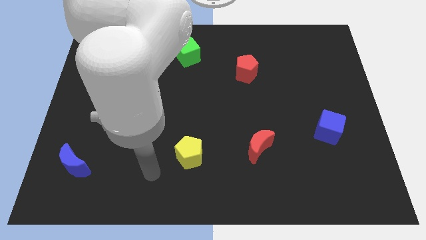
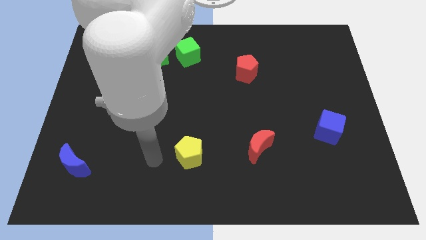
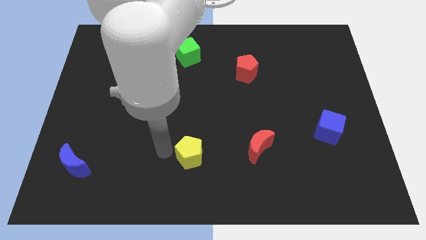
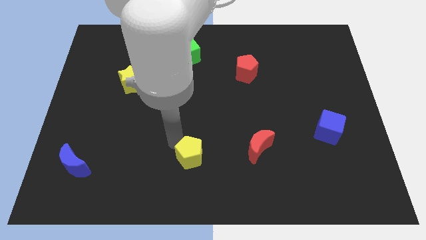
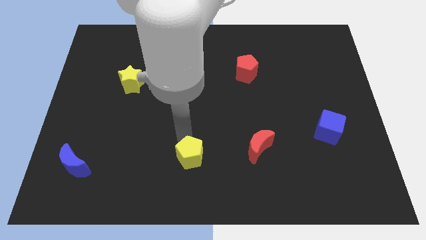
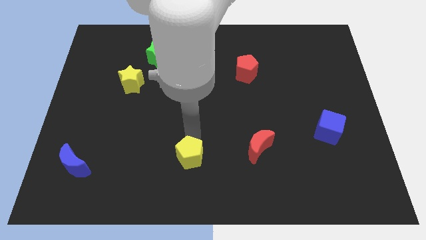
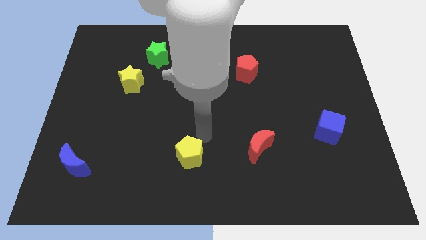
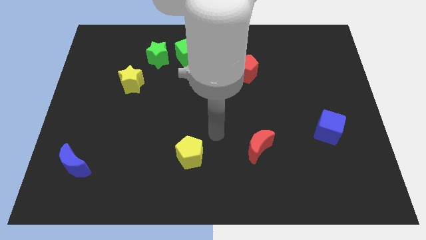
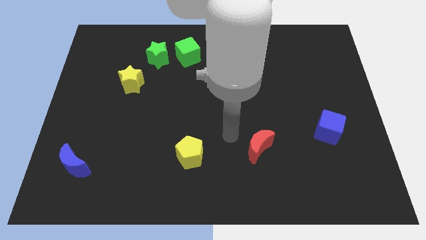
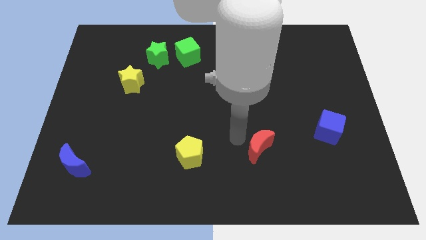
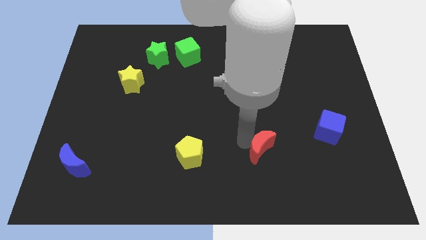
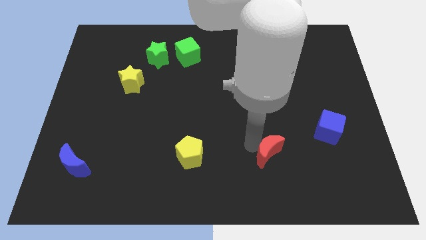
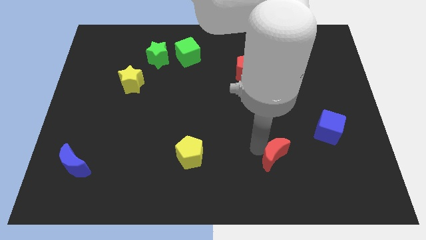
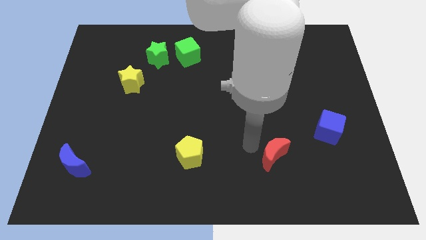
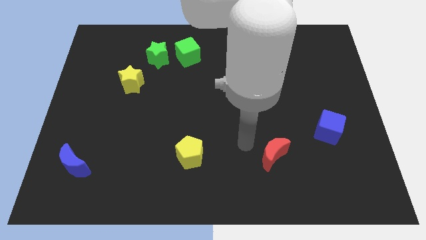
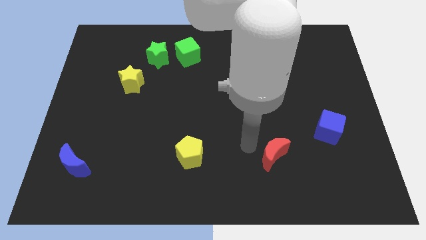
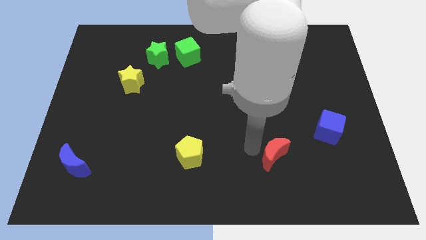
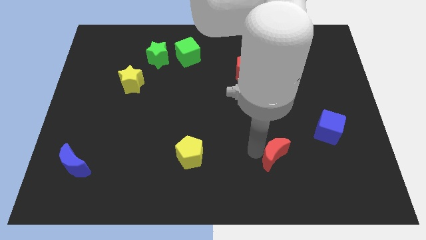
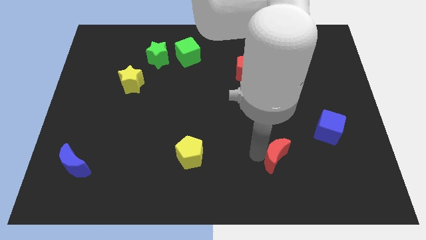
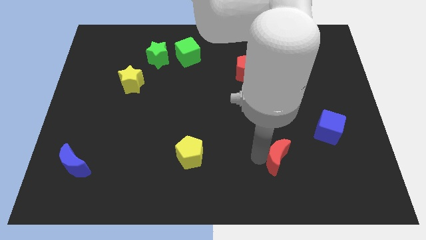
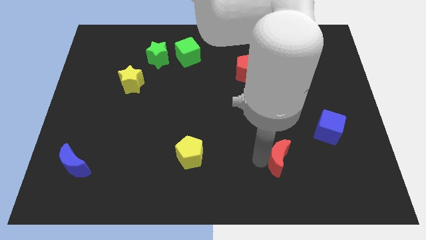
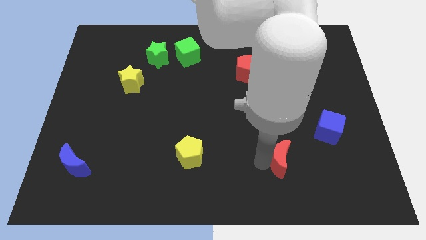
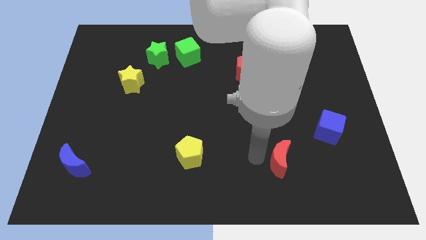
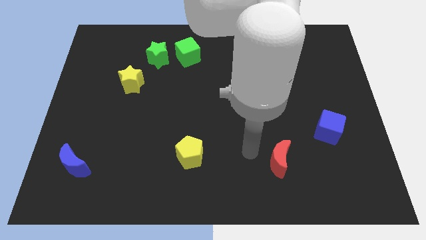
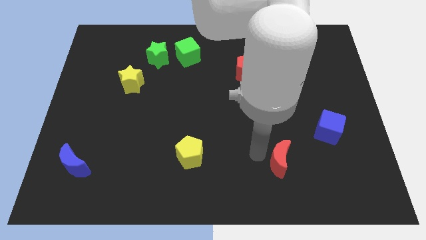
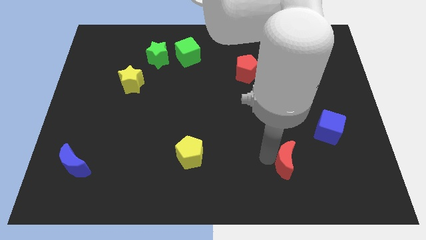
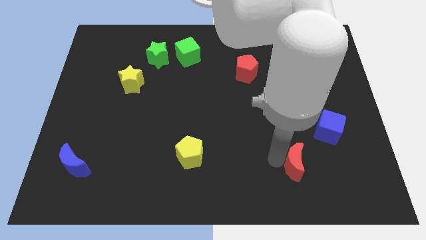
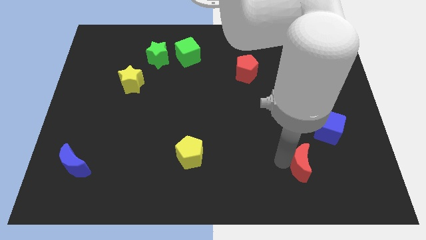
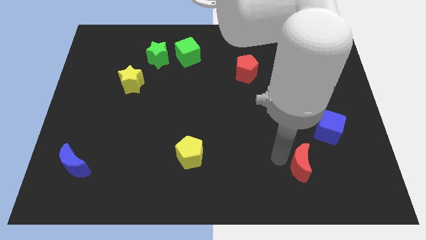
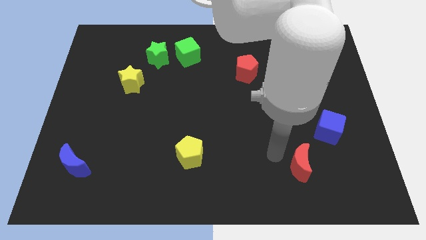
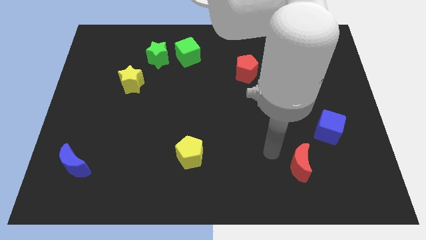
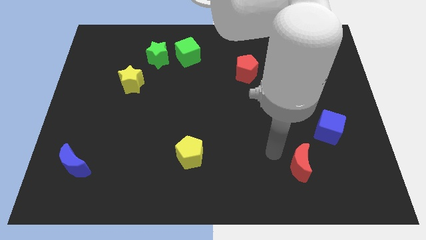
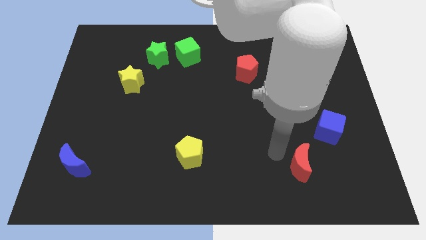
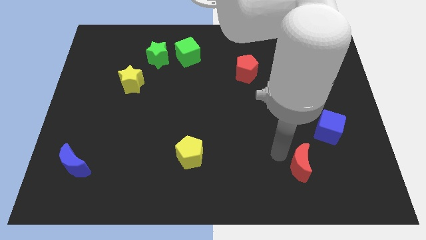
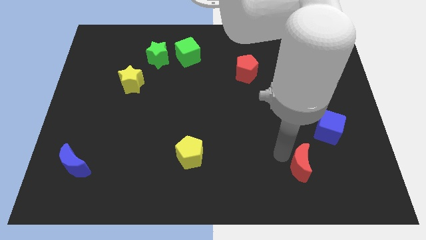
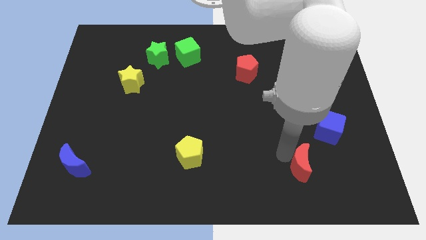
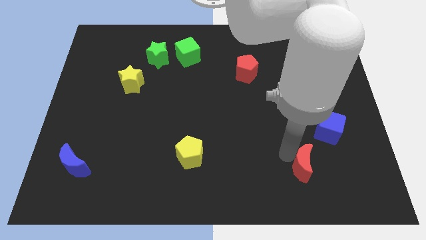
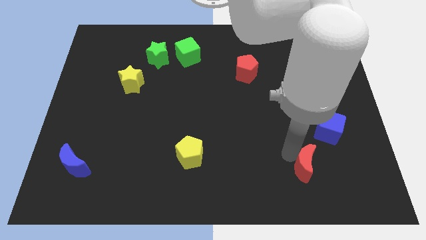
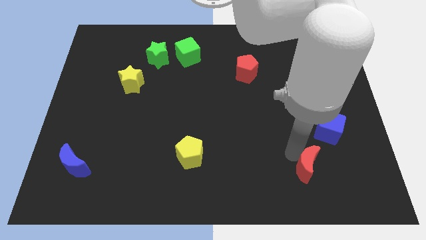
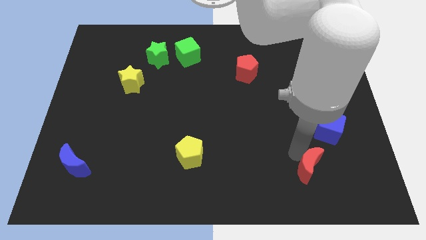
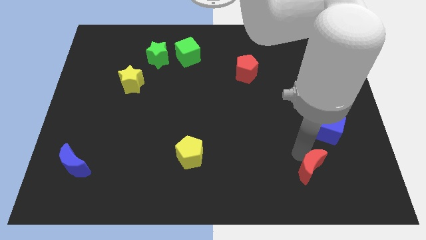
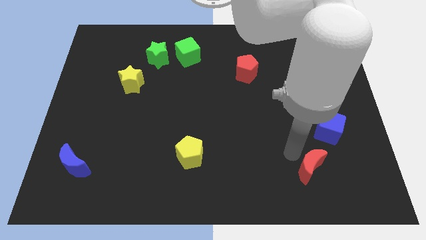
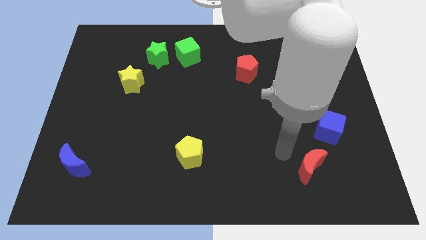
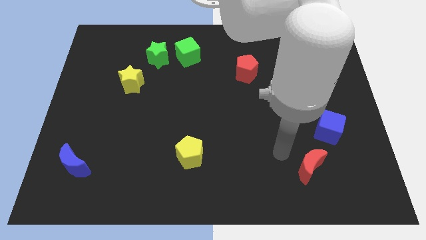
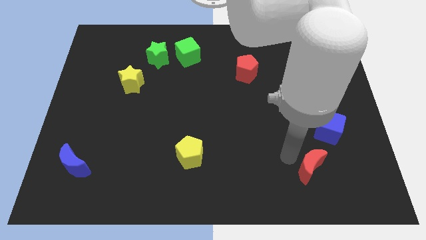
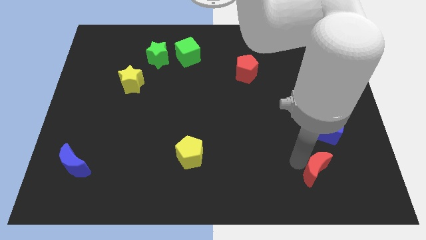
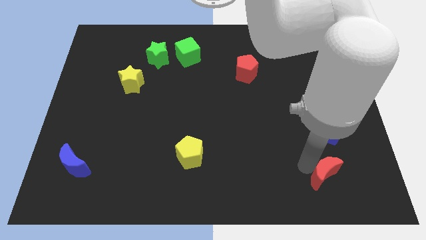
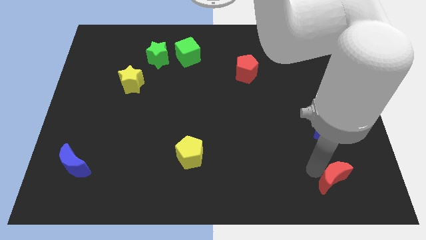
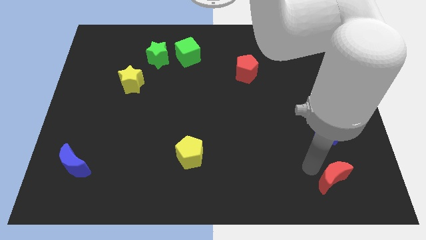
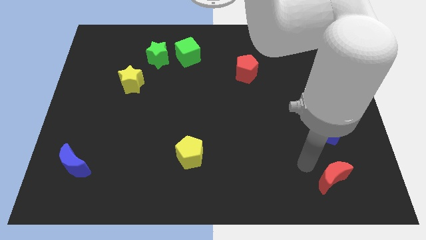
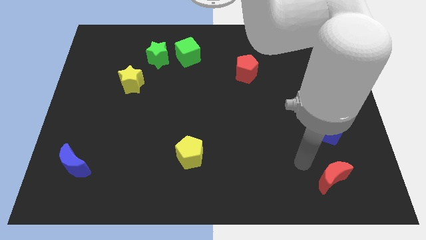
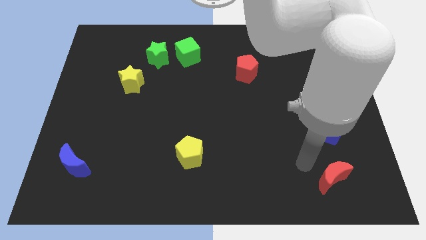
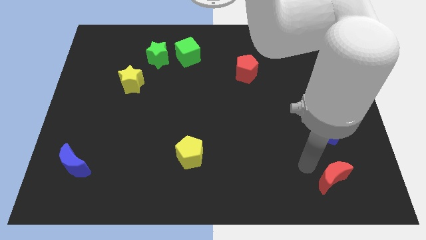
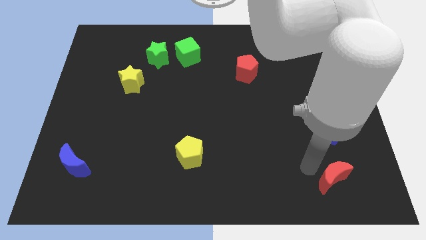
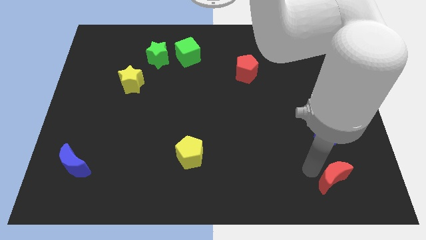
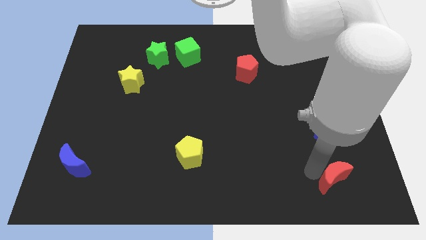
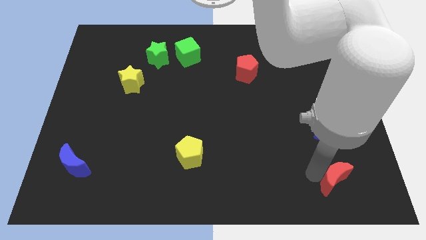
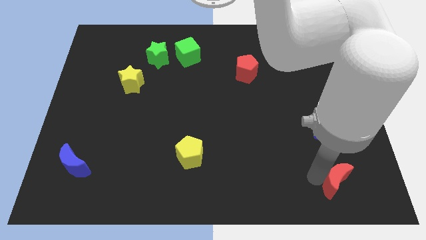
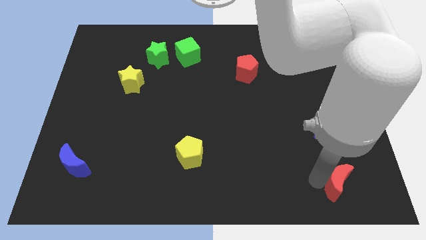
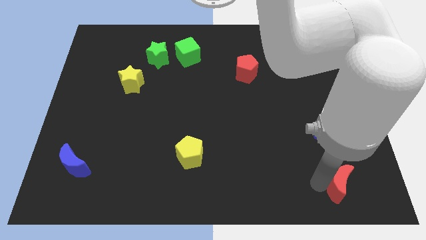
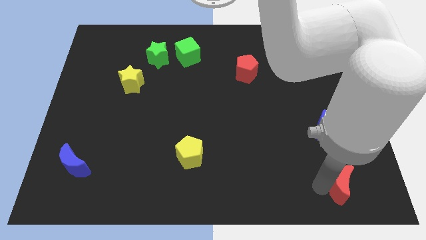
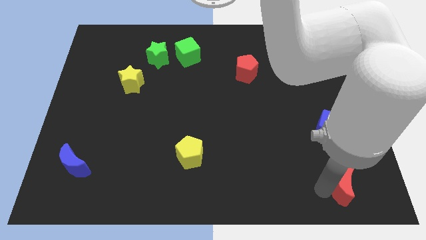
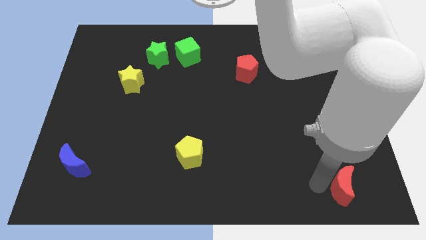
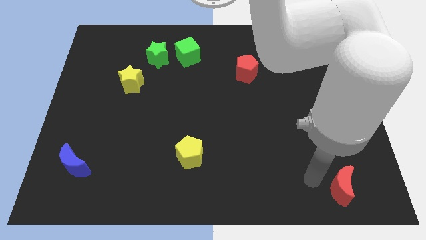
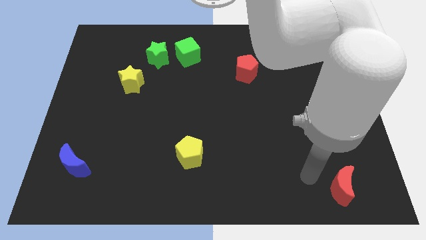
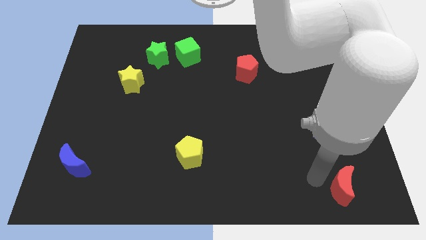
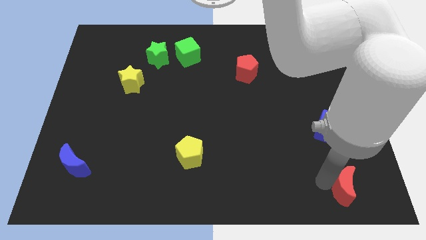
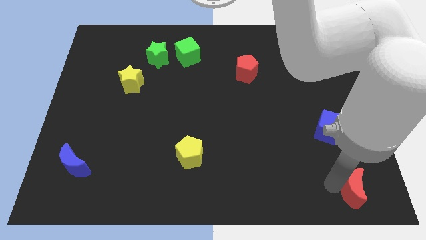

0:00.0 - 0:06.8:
push the red moon to the bottom right corner
